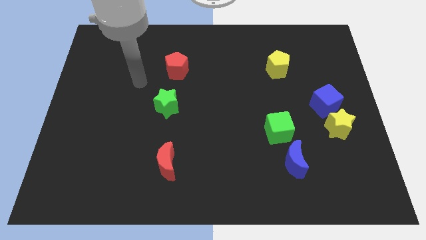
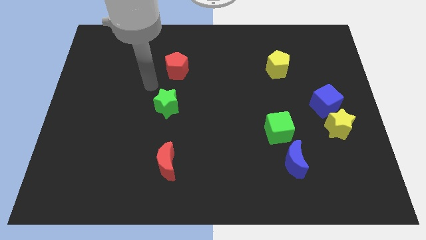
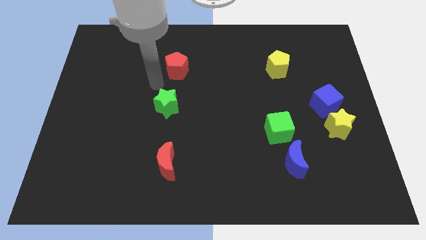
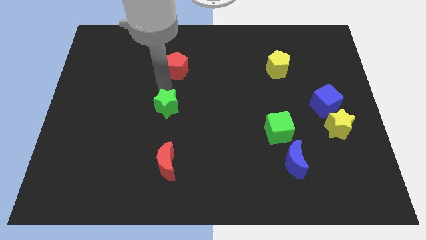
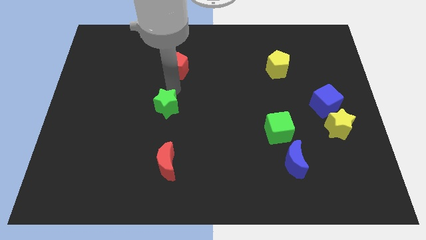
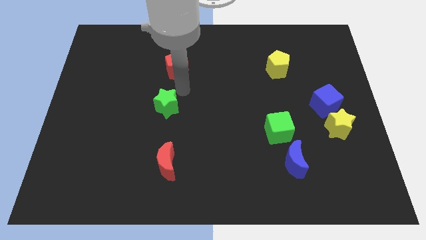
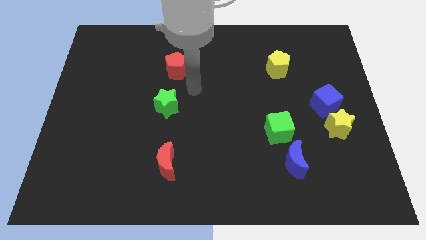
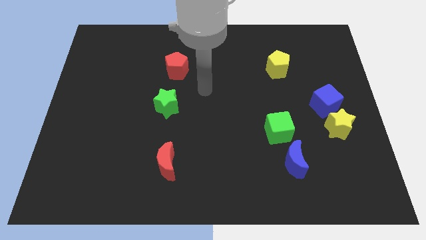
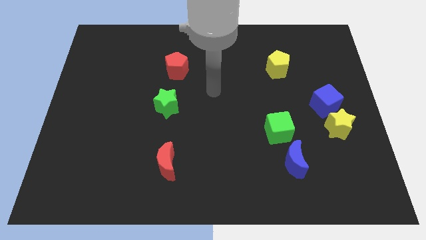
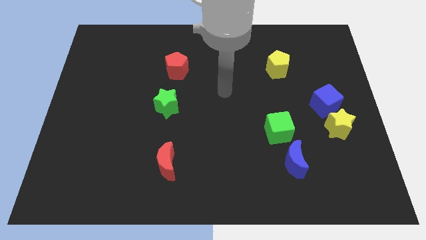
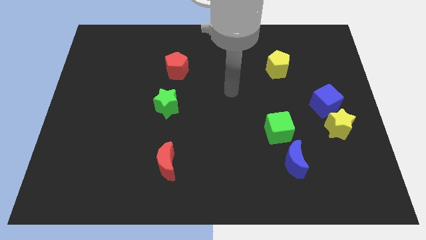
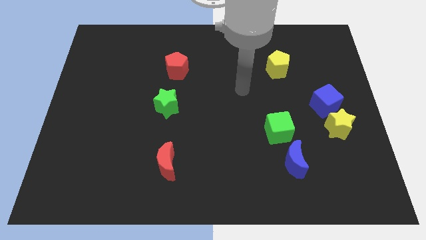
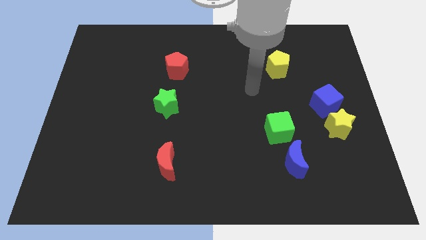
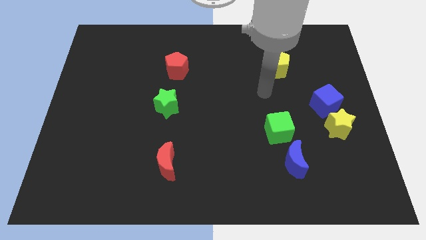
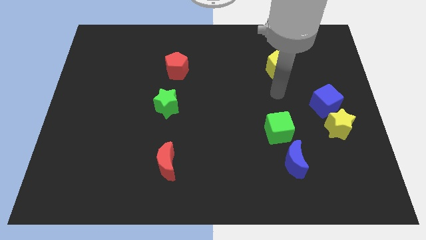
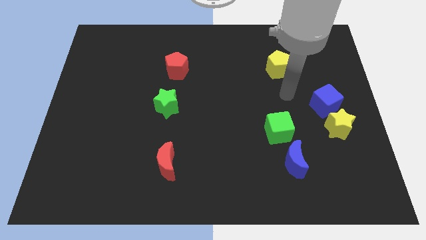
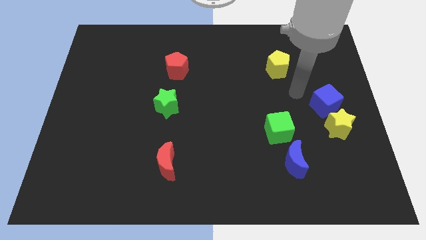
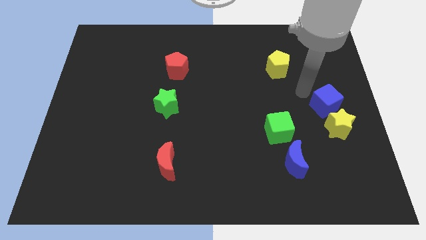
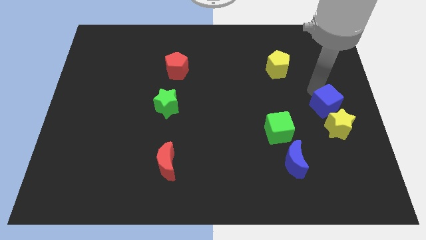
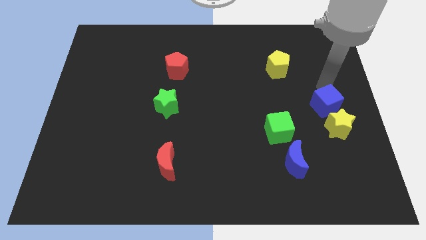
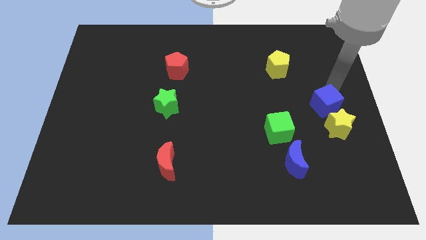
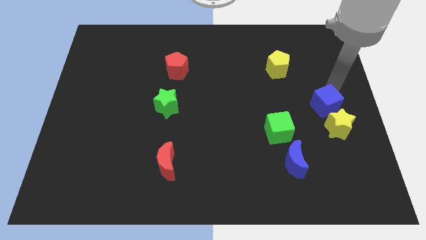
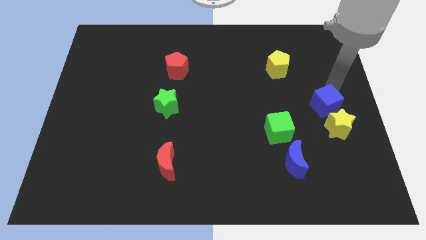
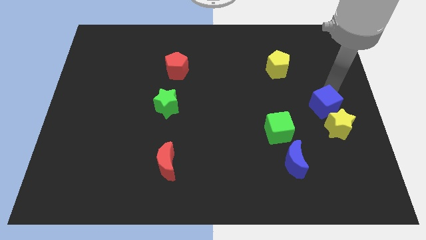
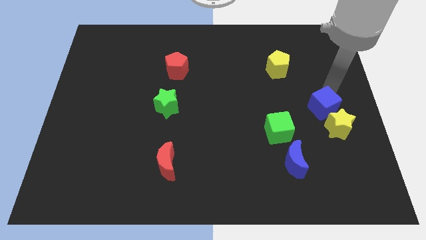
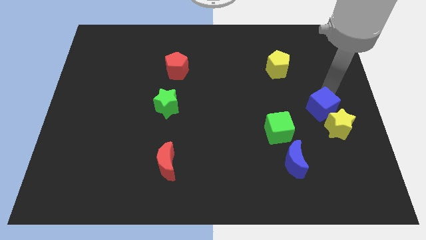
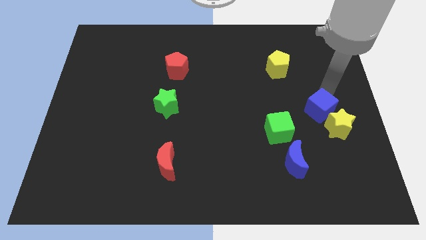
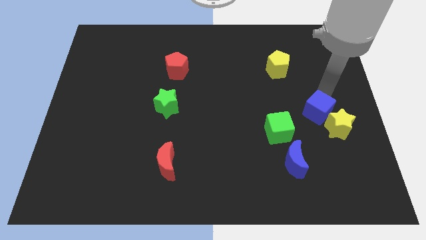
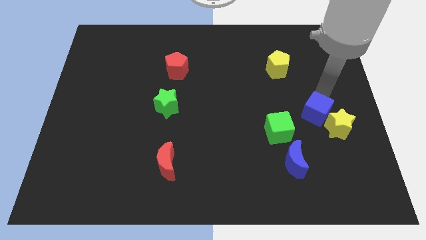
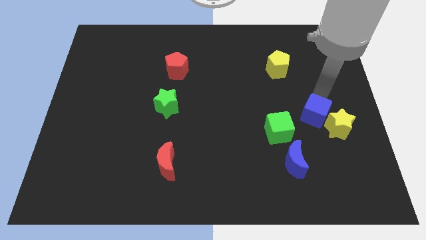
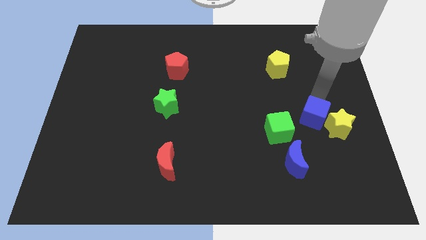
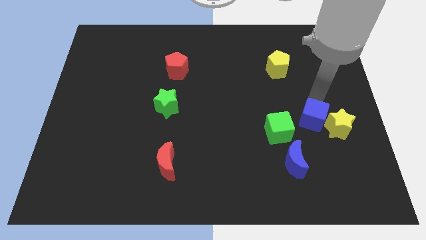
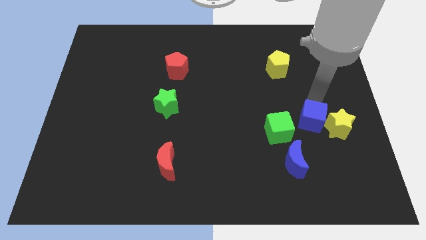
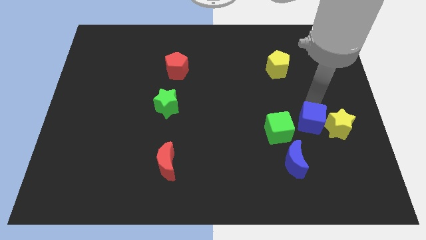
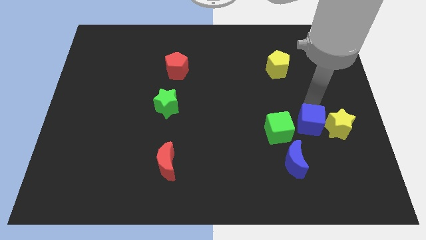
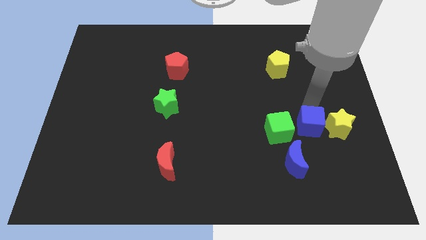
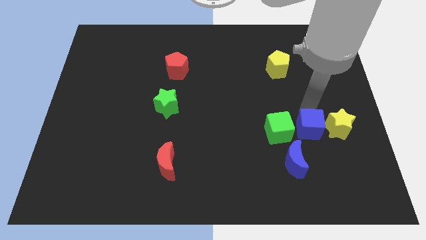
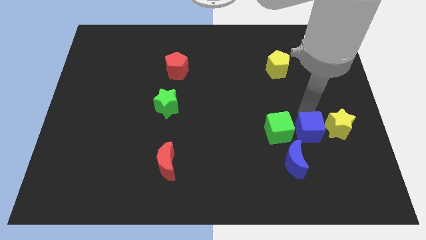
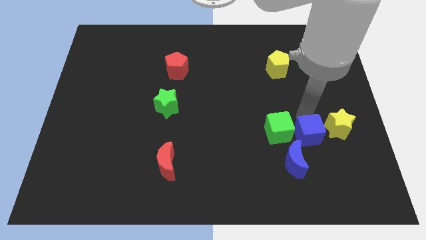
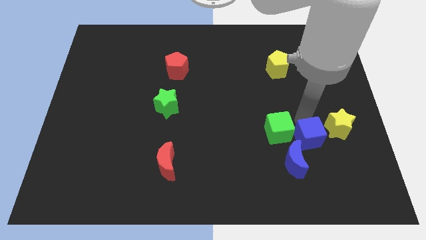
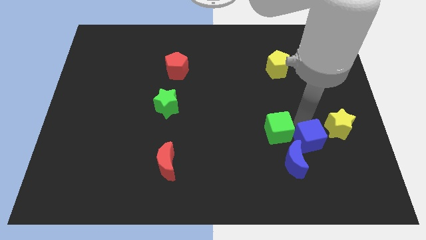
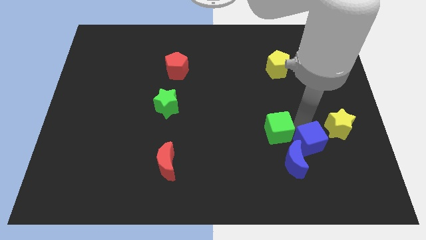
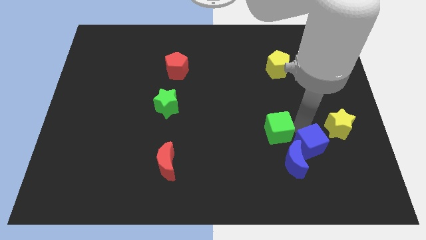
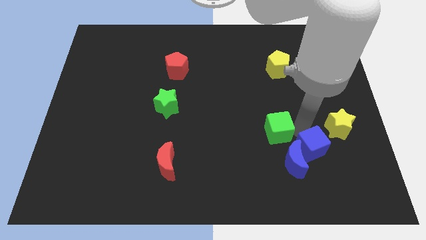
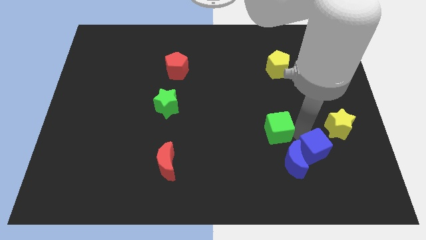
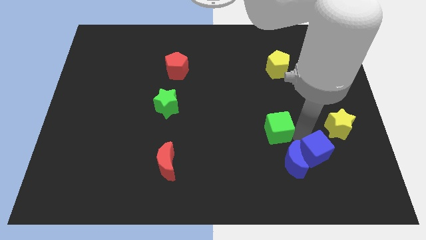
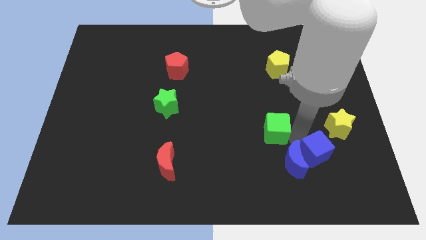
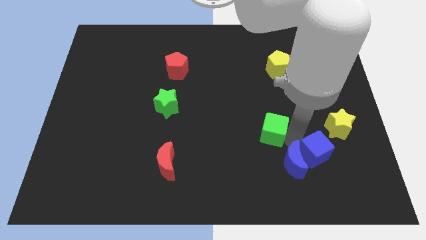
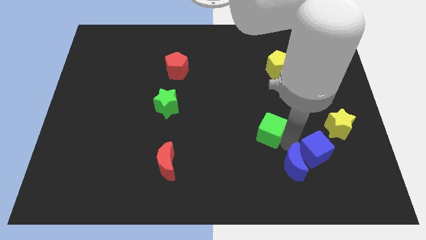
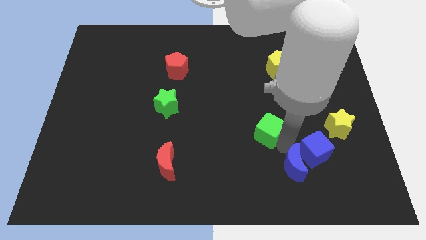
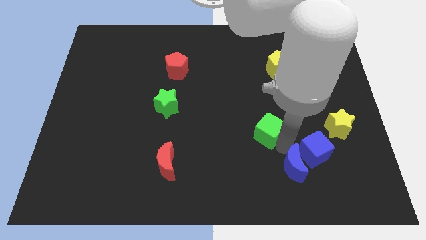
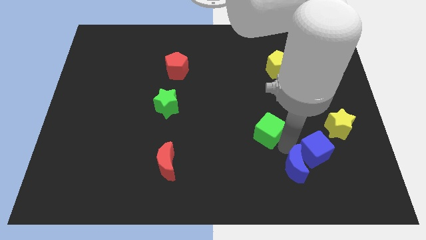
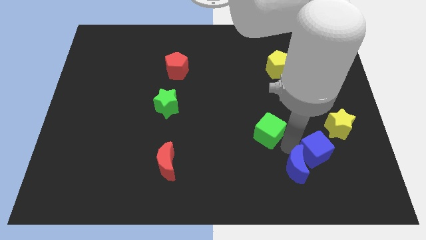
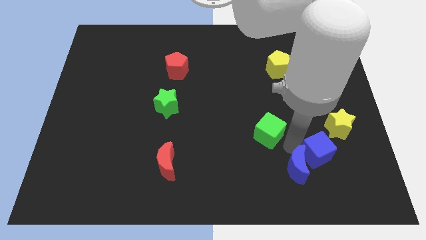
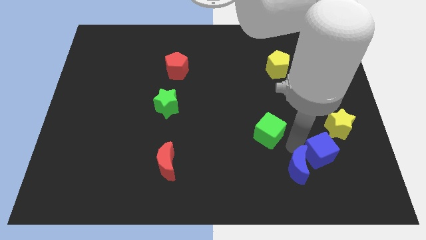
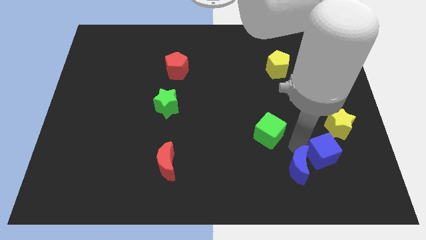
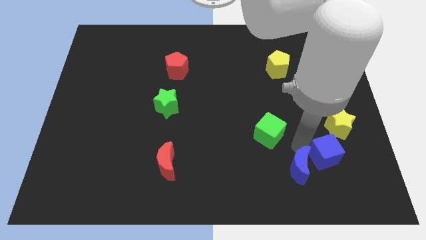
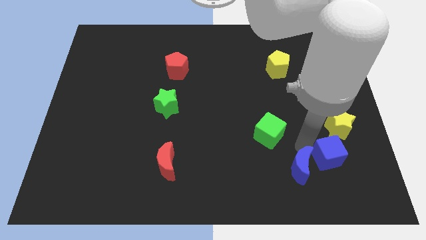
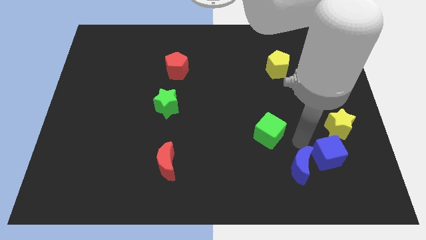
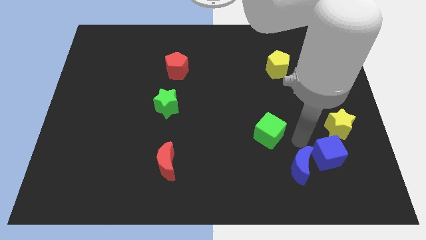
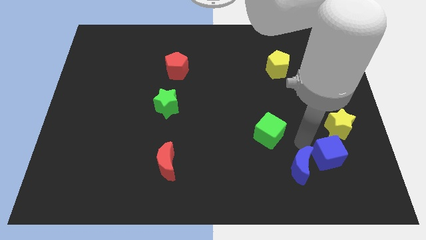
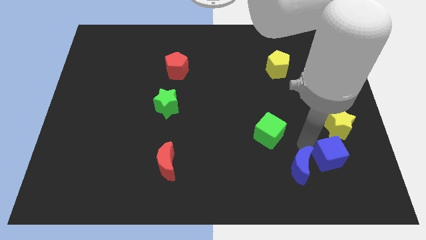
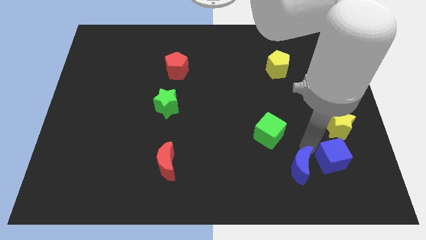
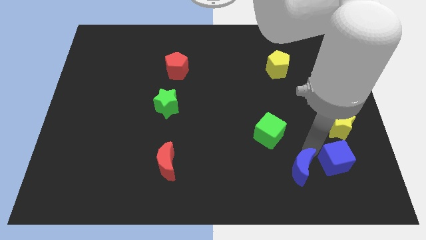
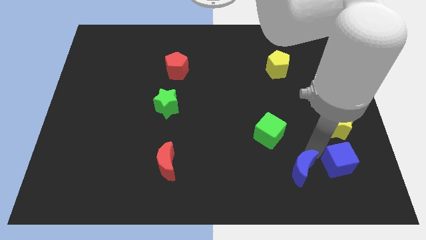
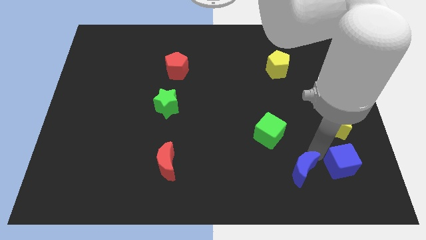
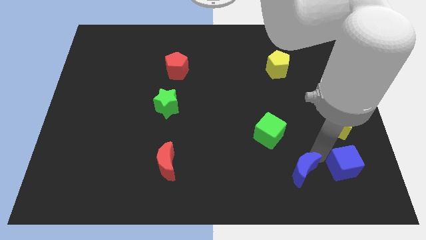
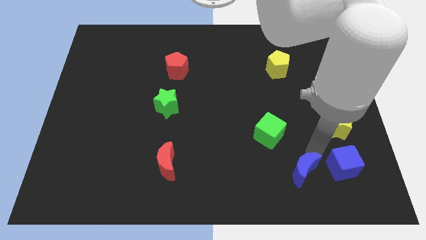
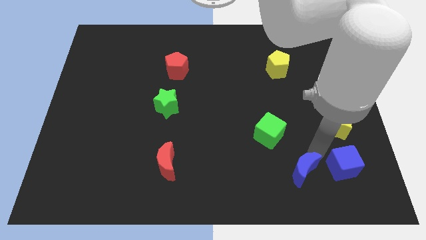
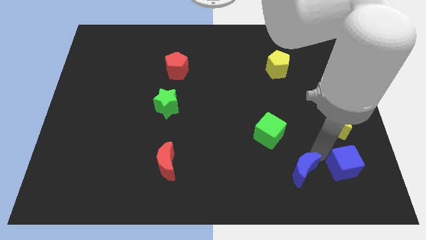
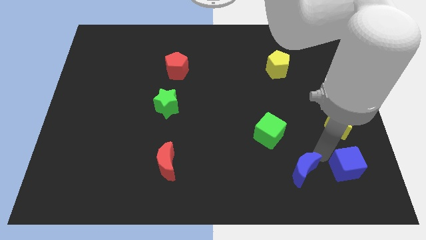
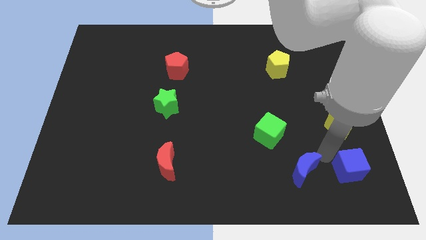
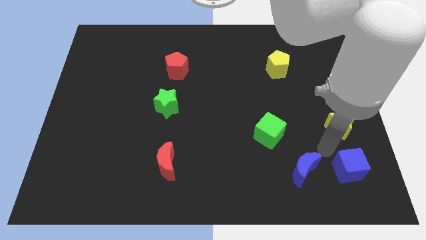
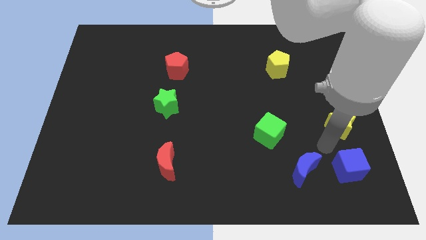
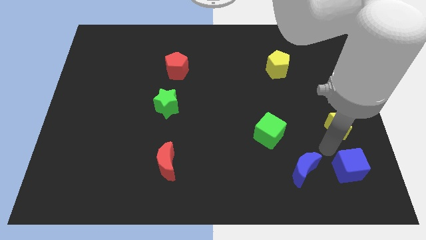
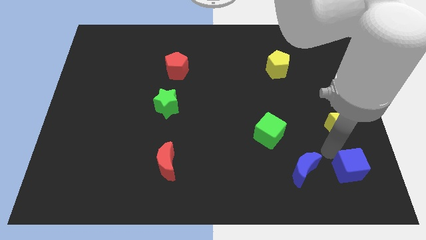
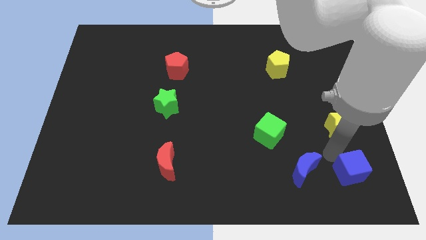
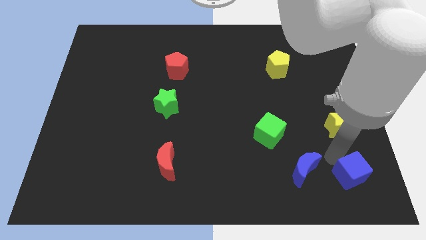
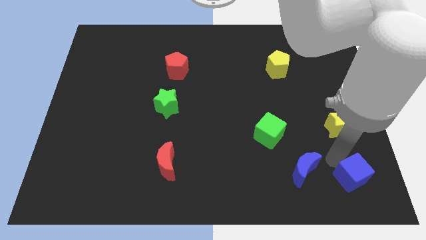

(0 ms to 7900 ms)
put the blue cube to the bottom right
